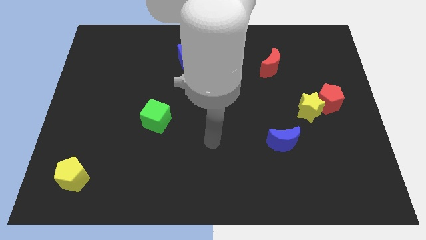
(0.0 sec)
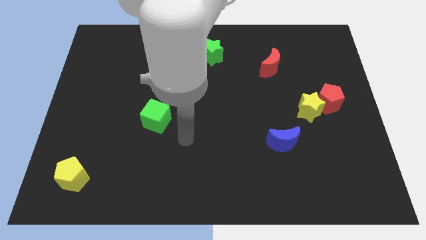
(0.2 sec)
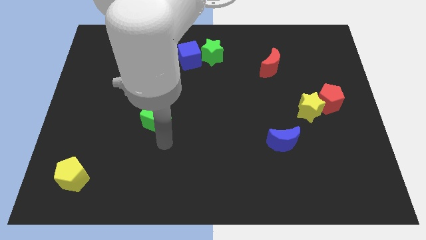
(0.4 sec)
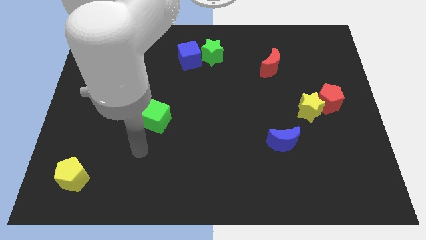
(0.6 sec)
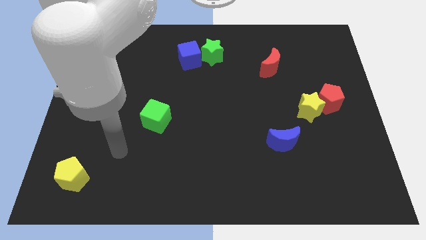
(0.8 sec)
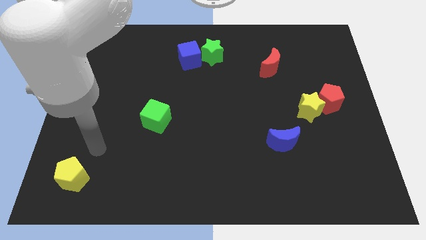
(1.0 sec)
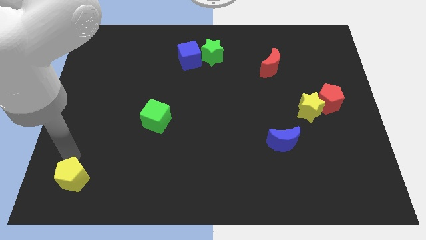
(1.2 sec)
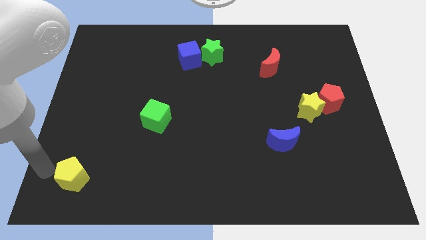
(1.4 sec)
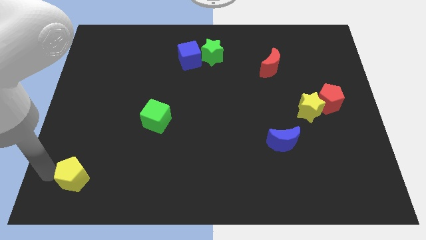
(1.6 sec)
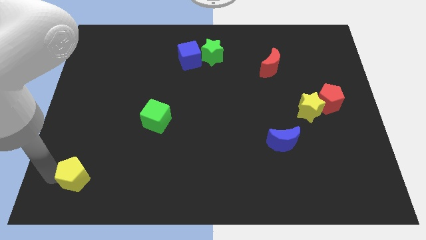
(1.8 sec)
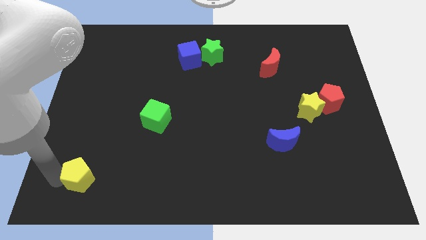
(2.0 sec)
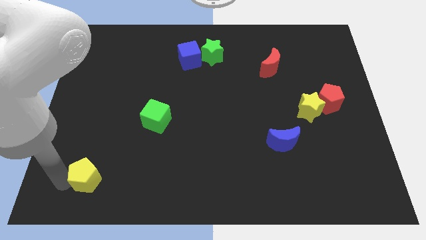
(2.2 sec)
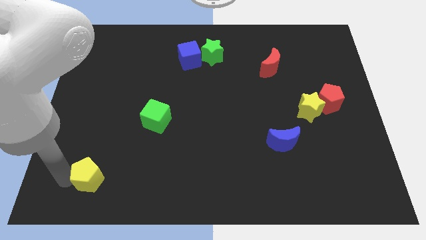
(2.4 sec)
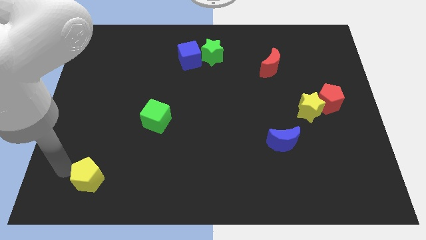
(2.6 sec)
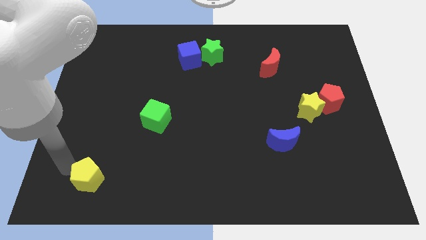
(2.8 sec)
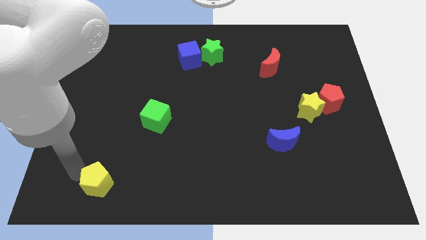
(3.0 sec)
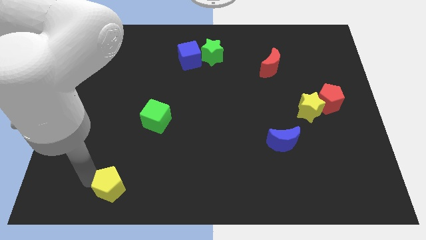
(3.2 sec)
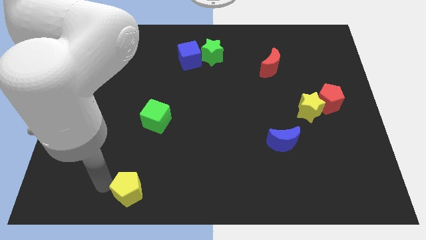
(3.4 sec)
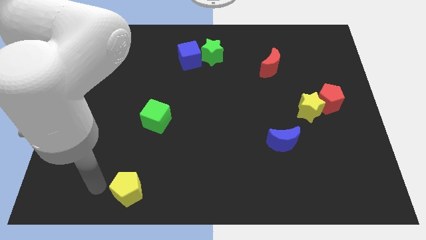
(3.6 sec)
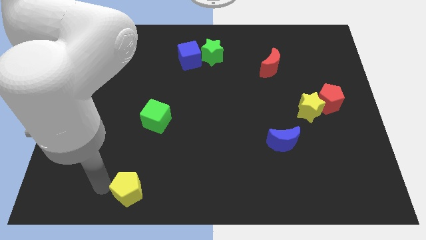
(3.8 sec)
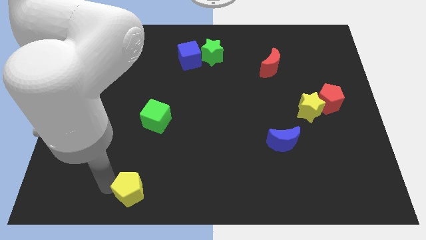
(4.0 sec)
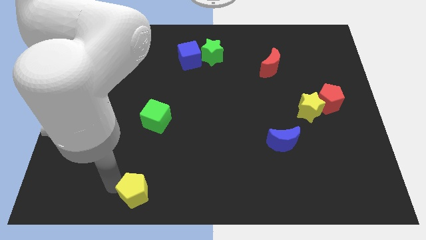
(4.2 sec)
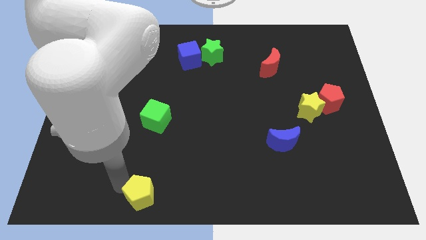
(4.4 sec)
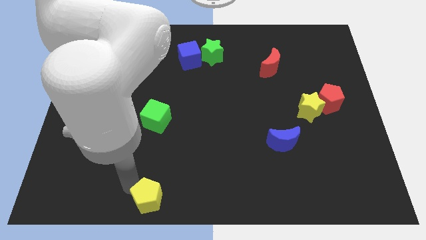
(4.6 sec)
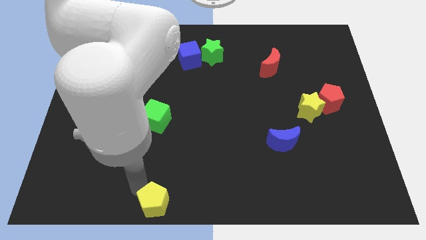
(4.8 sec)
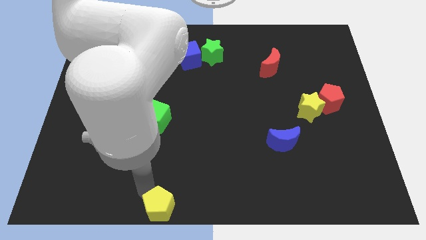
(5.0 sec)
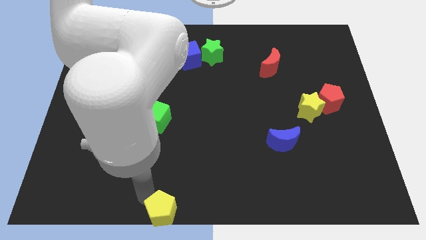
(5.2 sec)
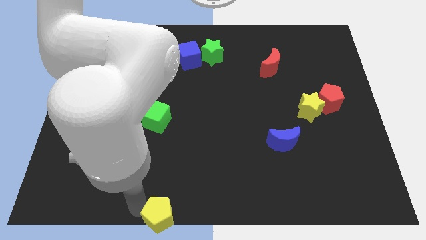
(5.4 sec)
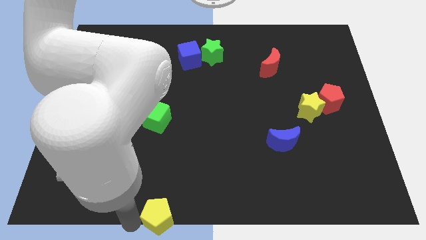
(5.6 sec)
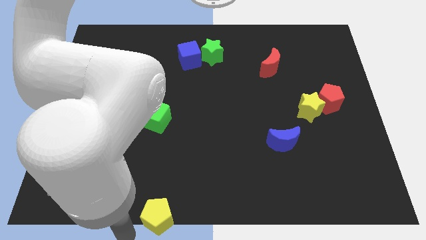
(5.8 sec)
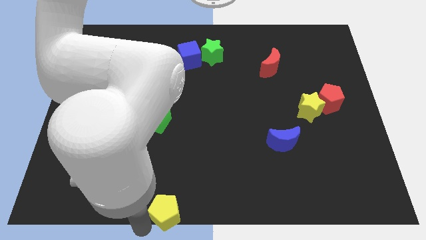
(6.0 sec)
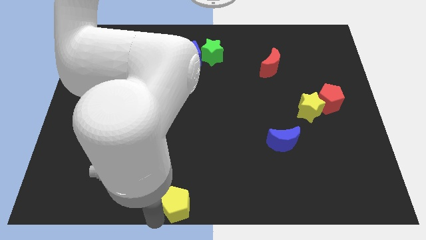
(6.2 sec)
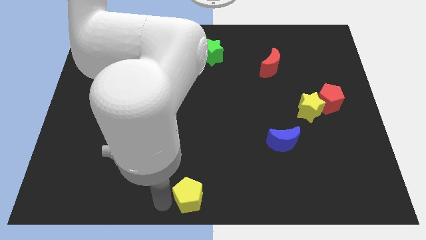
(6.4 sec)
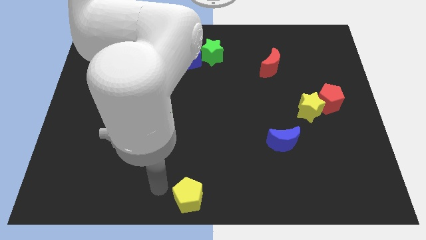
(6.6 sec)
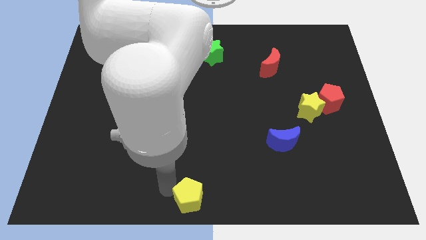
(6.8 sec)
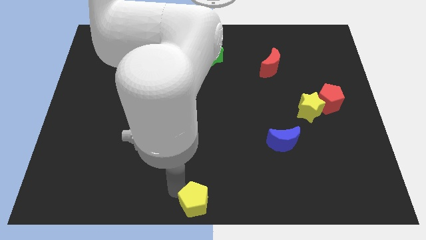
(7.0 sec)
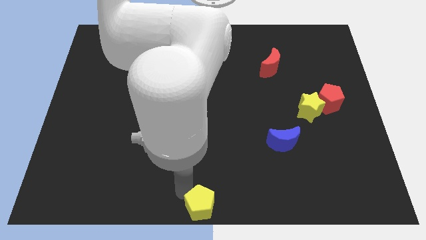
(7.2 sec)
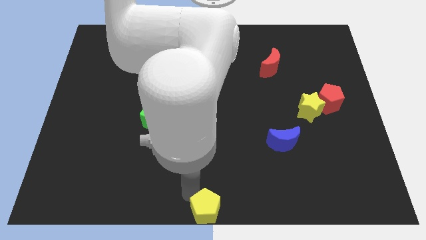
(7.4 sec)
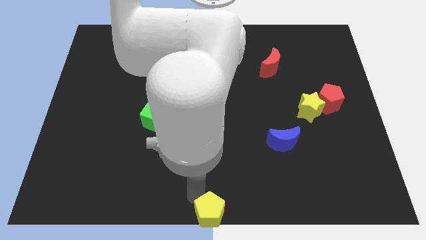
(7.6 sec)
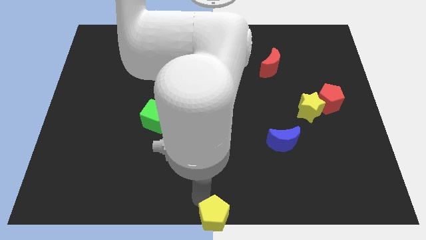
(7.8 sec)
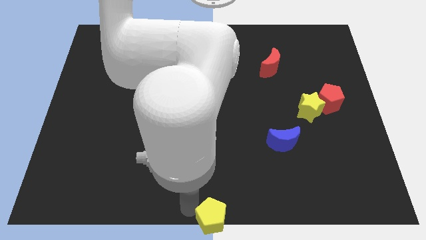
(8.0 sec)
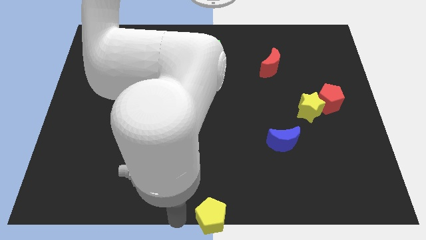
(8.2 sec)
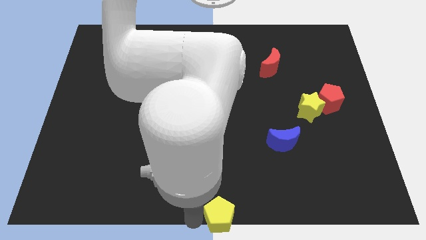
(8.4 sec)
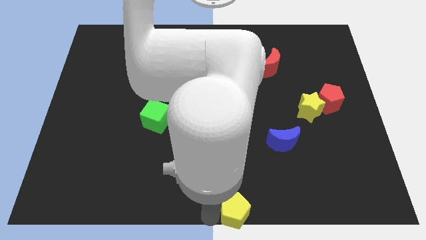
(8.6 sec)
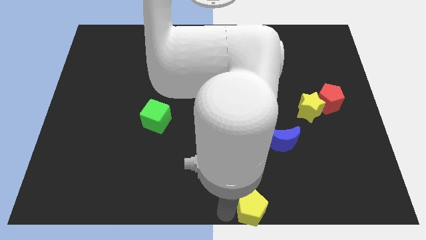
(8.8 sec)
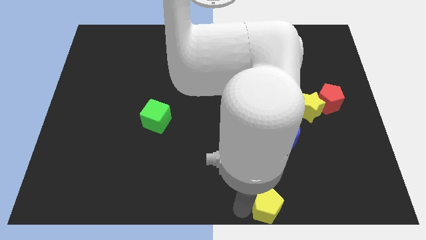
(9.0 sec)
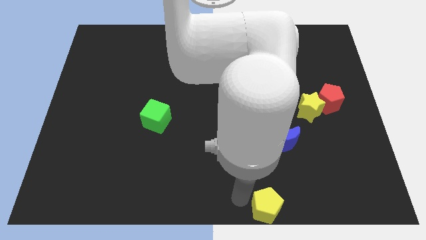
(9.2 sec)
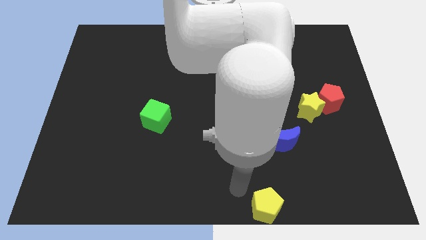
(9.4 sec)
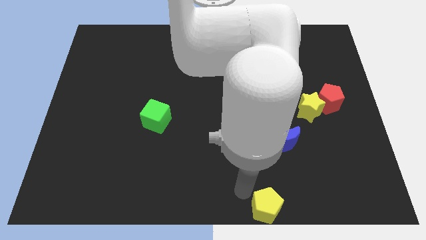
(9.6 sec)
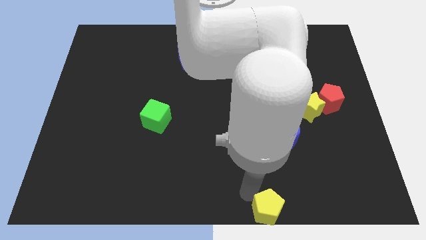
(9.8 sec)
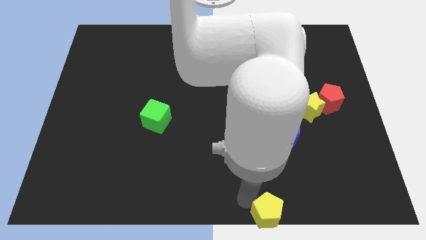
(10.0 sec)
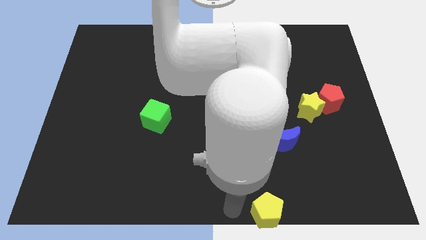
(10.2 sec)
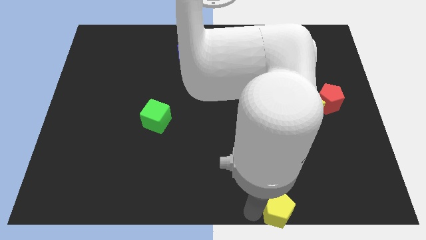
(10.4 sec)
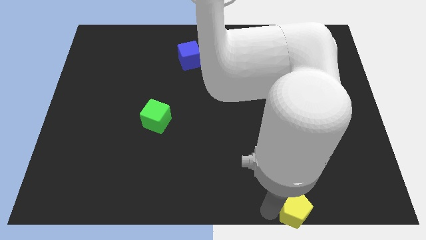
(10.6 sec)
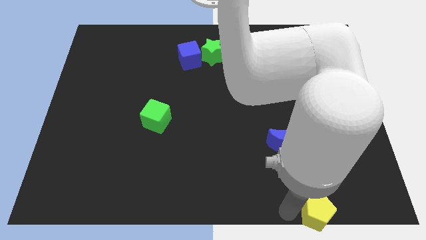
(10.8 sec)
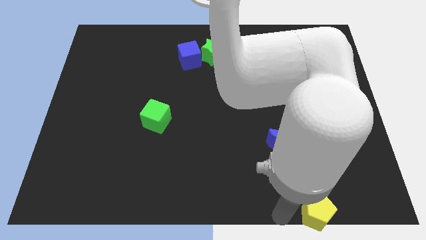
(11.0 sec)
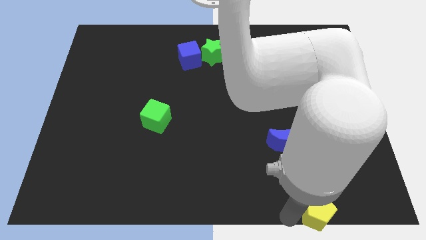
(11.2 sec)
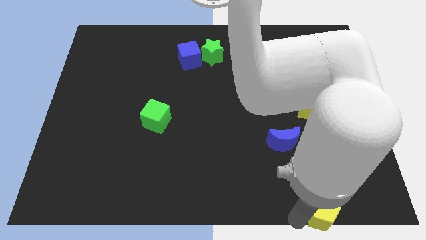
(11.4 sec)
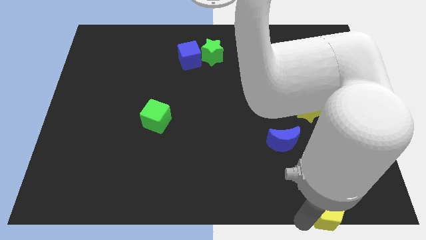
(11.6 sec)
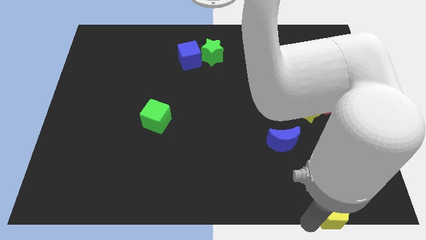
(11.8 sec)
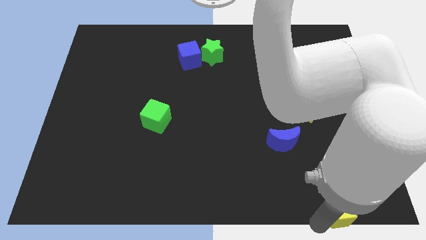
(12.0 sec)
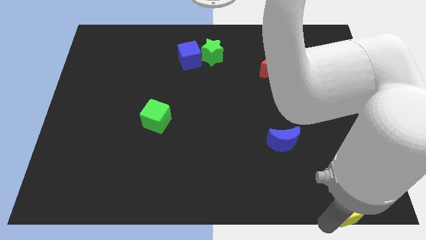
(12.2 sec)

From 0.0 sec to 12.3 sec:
put the yellow pentagon to the bottom right
